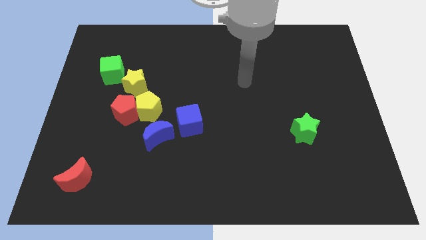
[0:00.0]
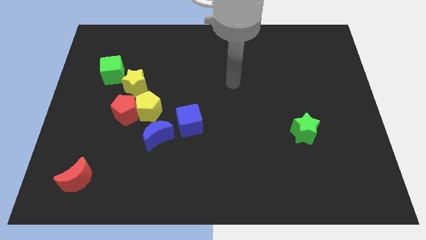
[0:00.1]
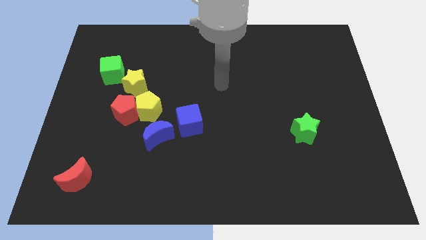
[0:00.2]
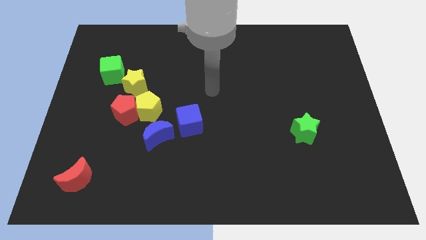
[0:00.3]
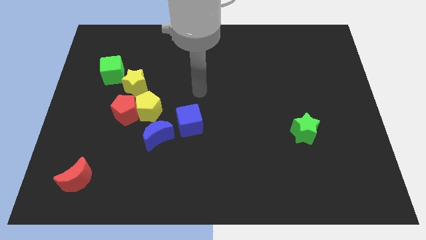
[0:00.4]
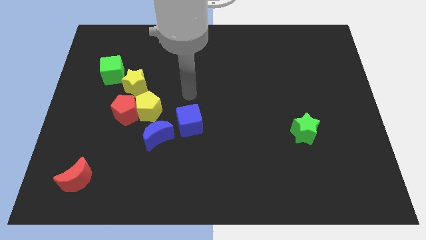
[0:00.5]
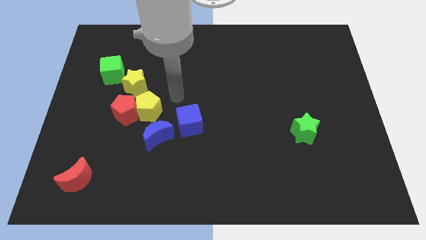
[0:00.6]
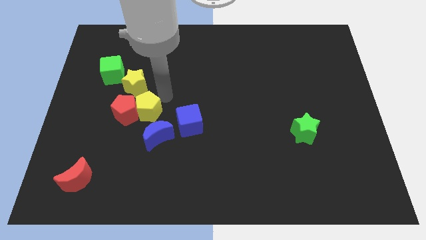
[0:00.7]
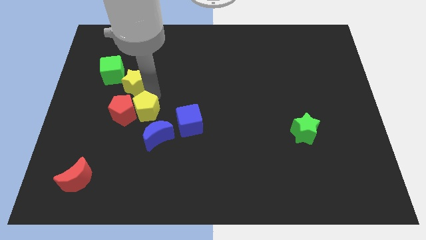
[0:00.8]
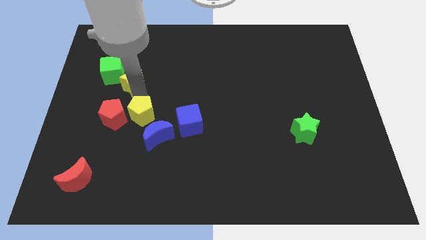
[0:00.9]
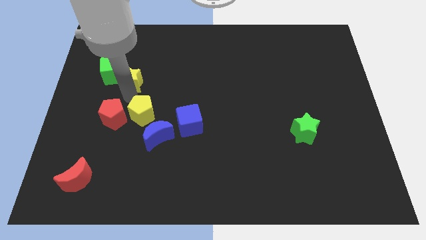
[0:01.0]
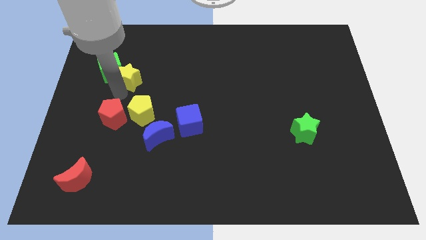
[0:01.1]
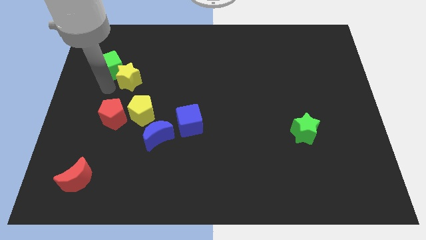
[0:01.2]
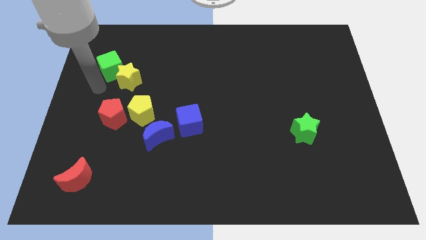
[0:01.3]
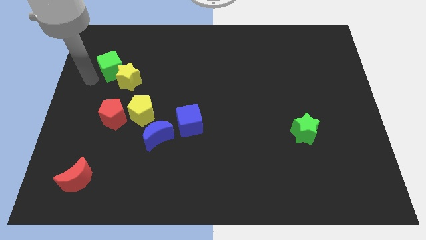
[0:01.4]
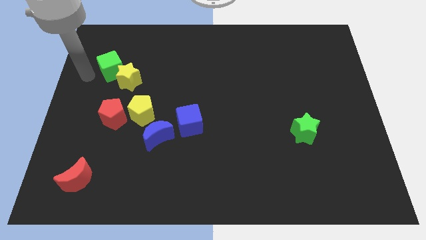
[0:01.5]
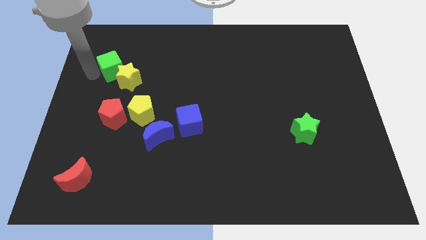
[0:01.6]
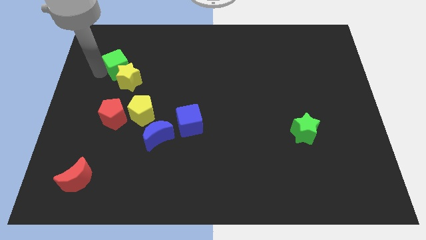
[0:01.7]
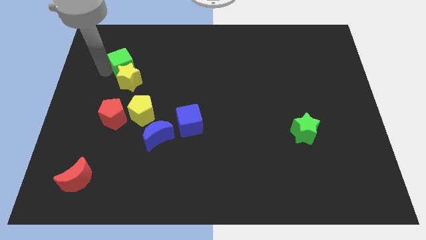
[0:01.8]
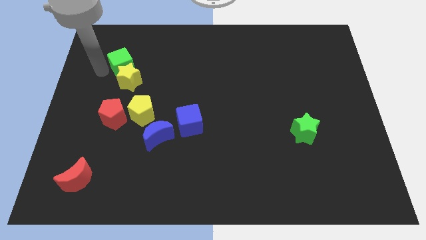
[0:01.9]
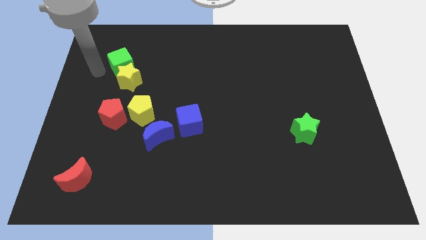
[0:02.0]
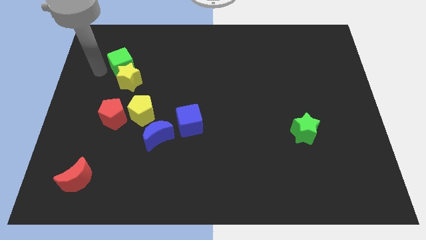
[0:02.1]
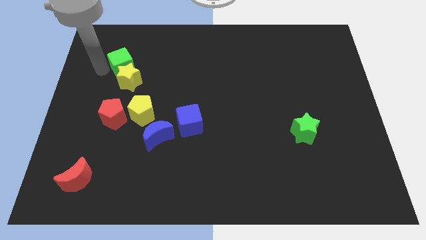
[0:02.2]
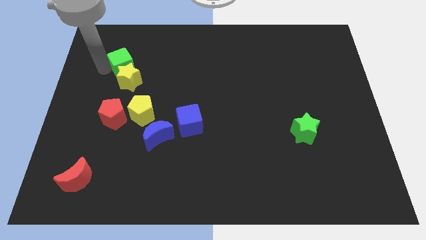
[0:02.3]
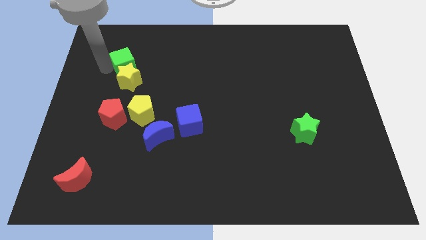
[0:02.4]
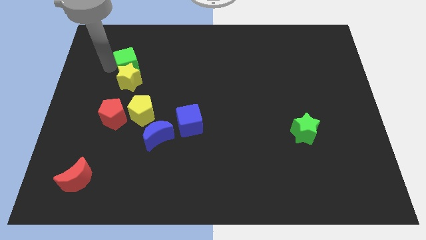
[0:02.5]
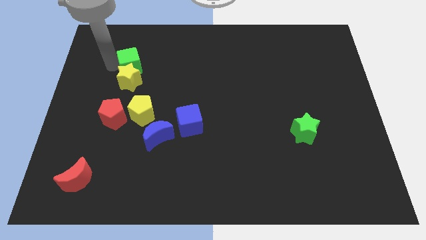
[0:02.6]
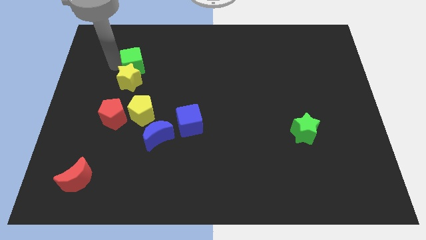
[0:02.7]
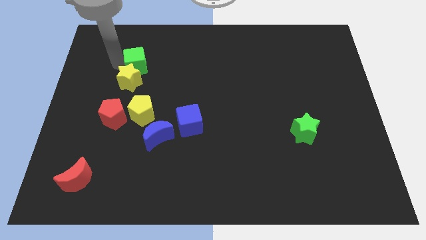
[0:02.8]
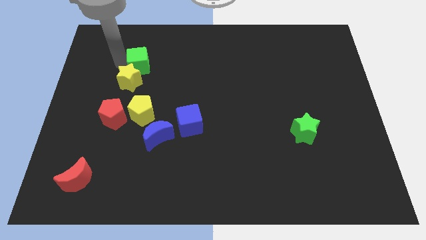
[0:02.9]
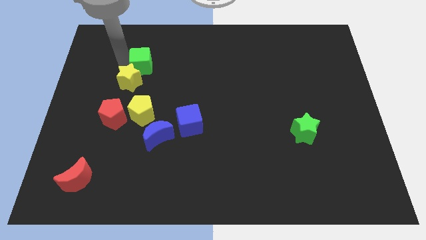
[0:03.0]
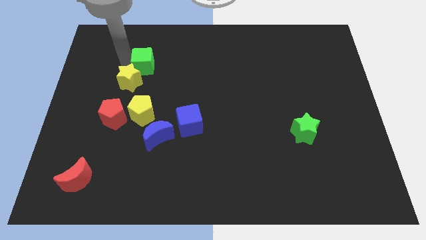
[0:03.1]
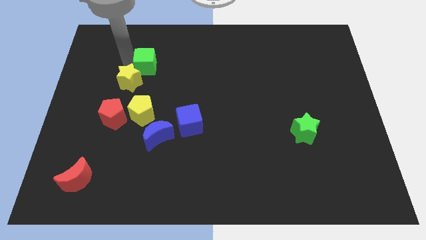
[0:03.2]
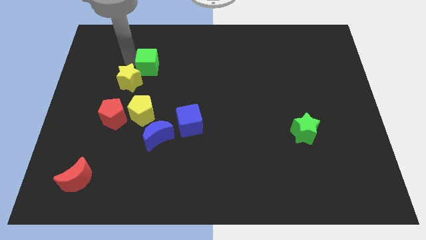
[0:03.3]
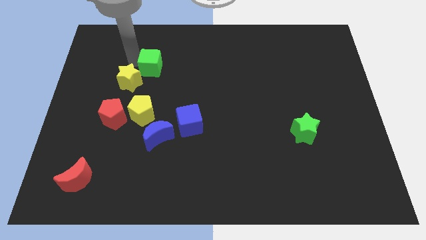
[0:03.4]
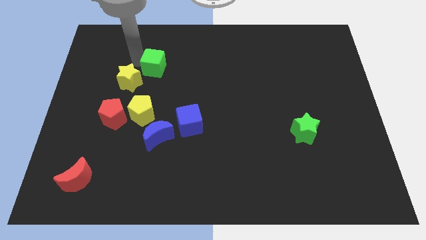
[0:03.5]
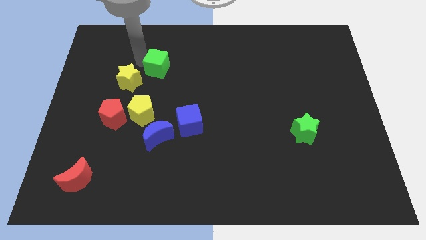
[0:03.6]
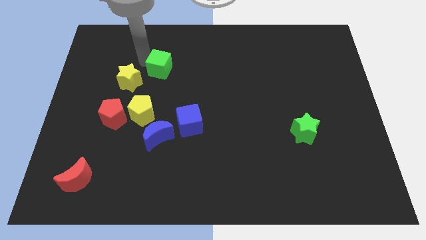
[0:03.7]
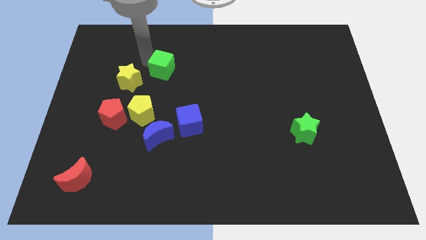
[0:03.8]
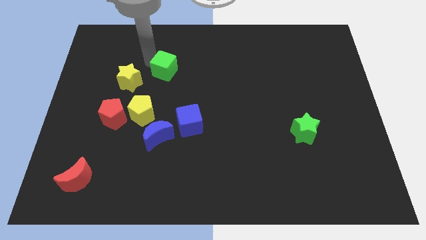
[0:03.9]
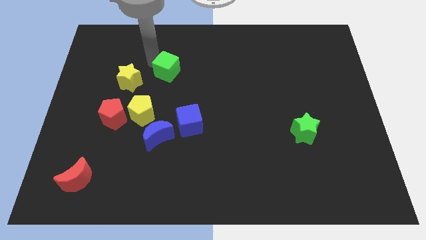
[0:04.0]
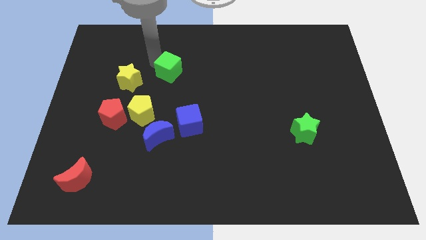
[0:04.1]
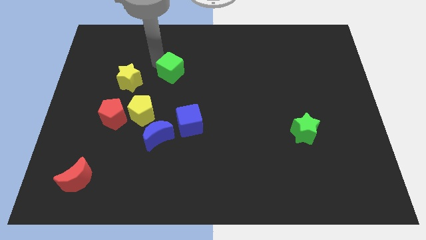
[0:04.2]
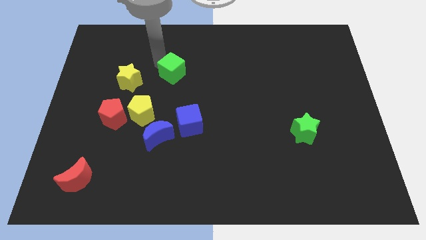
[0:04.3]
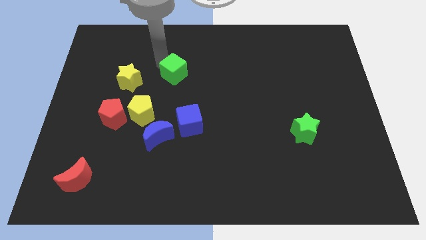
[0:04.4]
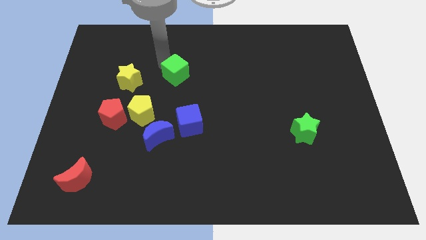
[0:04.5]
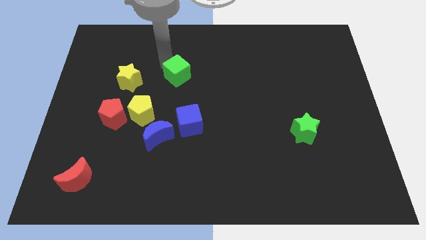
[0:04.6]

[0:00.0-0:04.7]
put the green cube to the middle

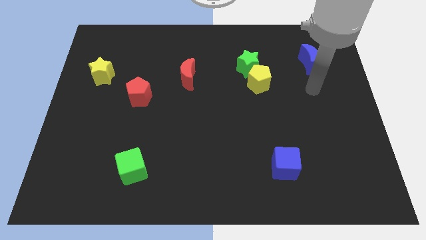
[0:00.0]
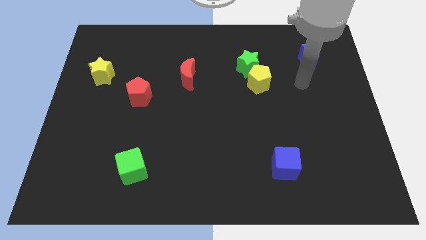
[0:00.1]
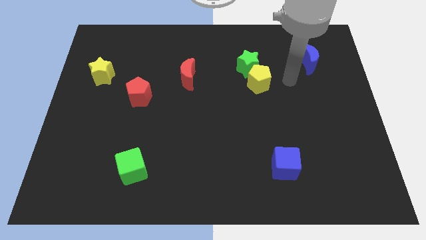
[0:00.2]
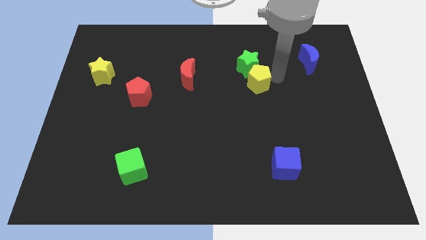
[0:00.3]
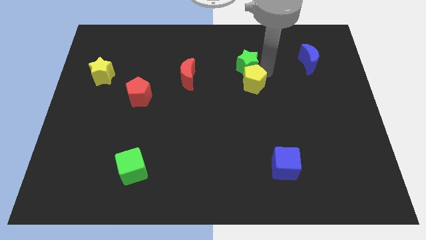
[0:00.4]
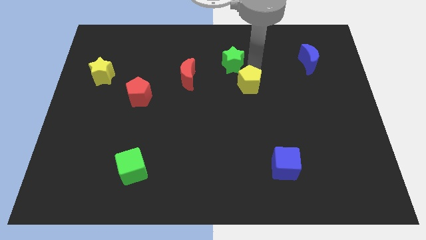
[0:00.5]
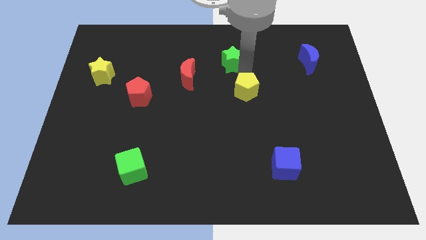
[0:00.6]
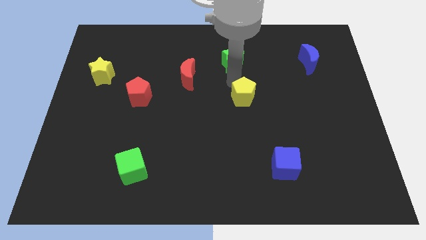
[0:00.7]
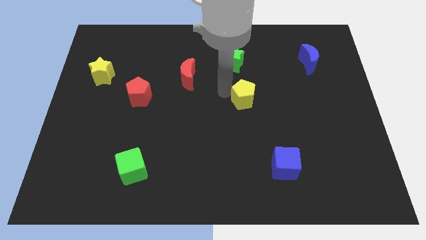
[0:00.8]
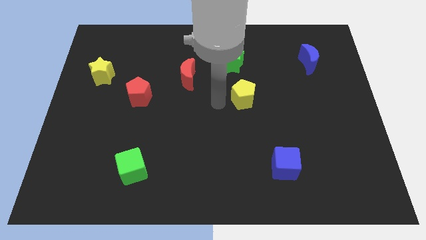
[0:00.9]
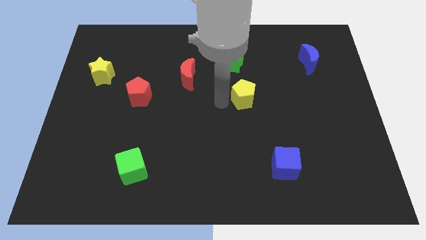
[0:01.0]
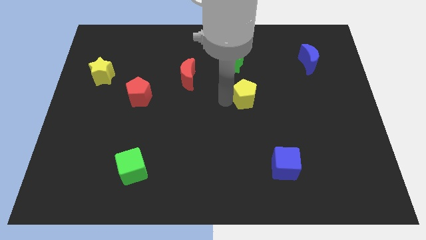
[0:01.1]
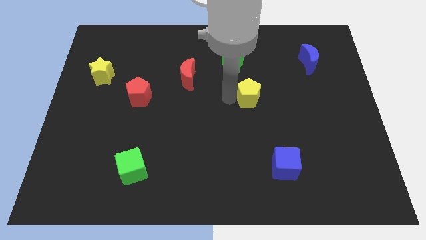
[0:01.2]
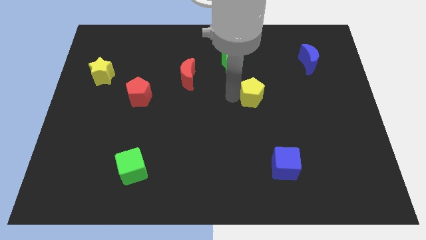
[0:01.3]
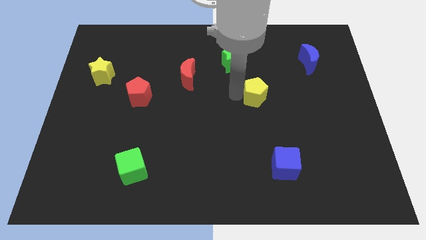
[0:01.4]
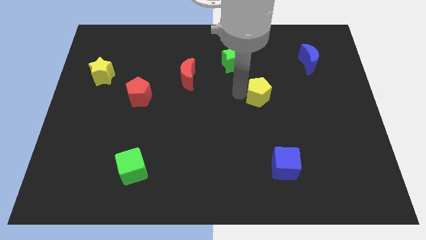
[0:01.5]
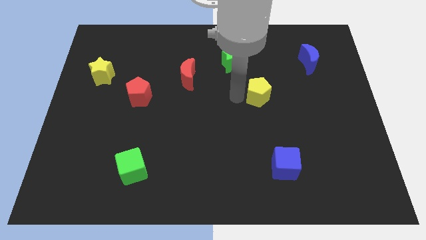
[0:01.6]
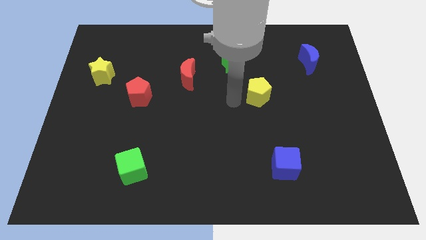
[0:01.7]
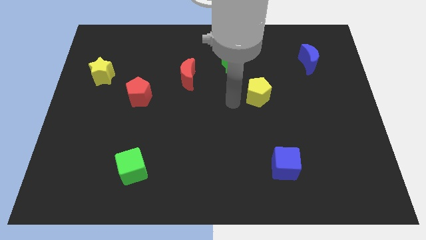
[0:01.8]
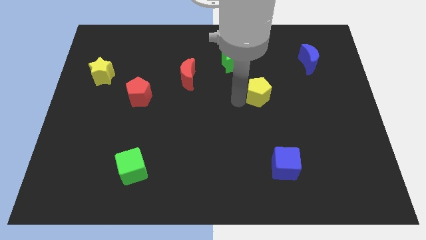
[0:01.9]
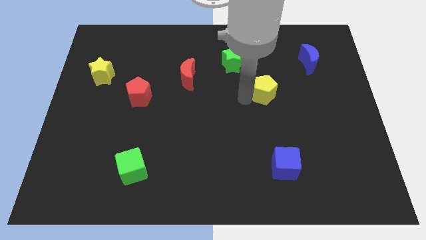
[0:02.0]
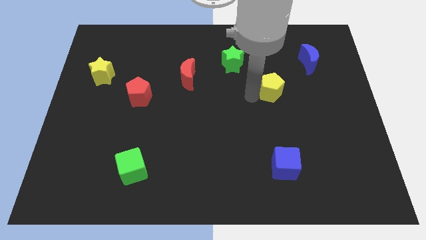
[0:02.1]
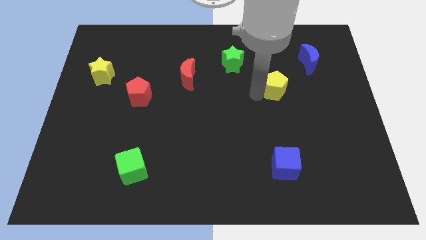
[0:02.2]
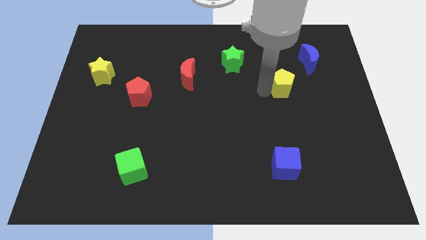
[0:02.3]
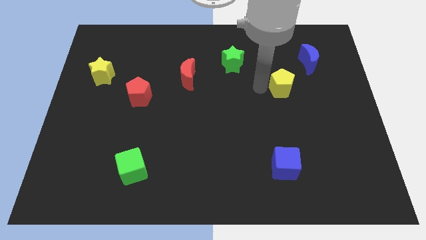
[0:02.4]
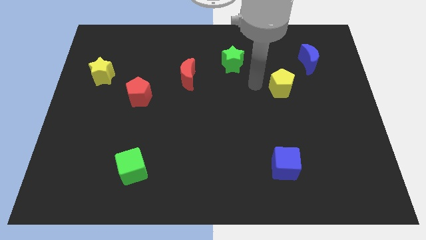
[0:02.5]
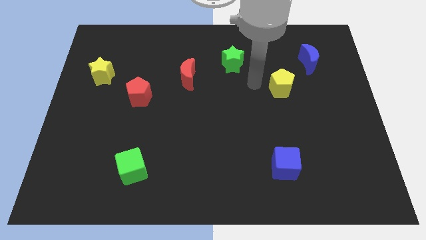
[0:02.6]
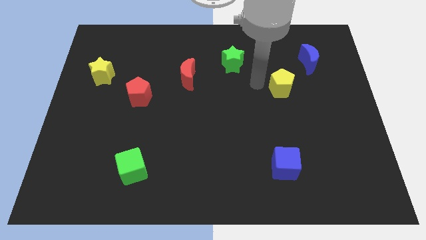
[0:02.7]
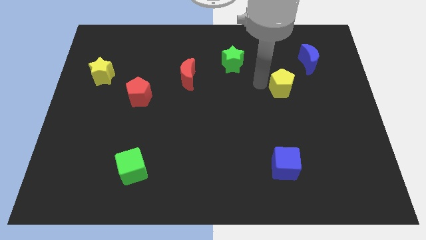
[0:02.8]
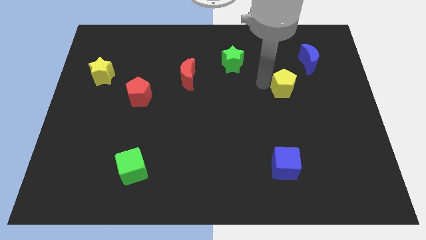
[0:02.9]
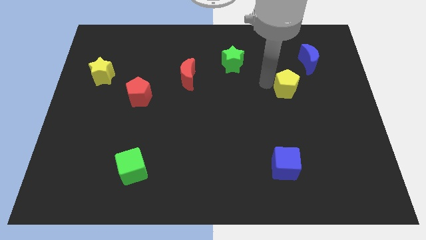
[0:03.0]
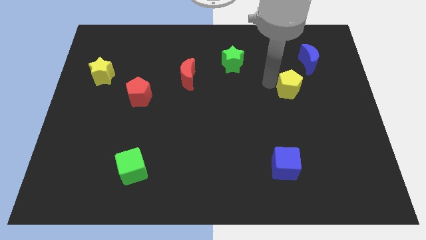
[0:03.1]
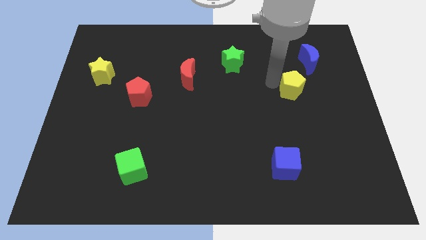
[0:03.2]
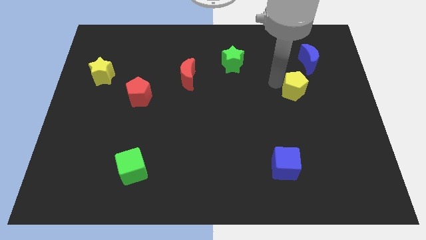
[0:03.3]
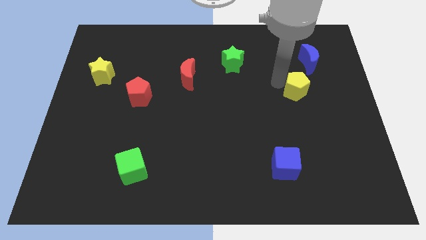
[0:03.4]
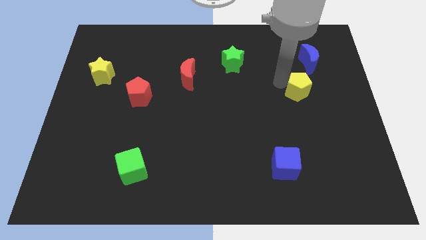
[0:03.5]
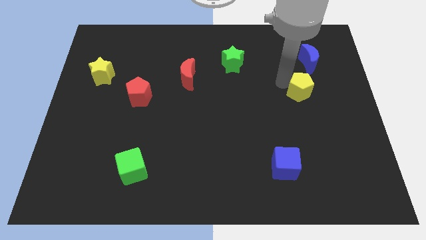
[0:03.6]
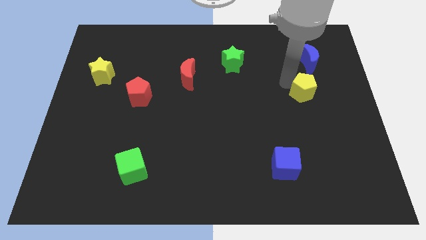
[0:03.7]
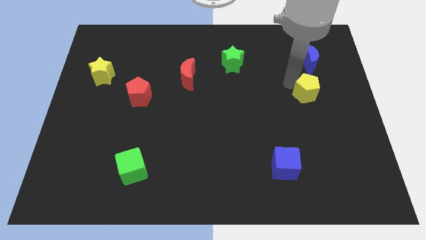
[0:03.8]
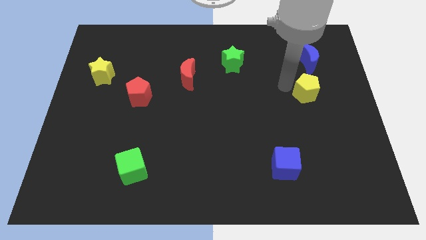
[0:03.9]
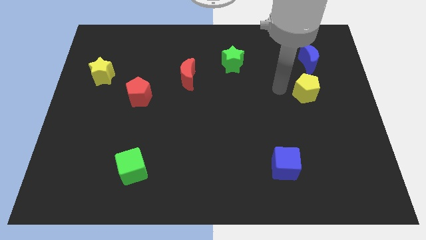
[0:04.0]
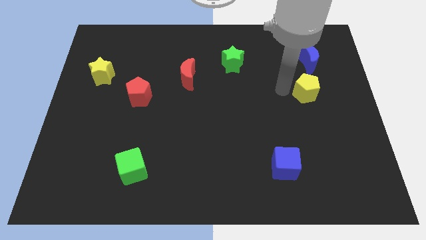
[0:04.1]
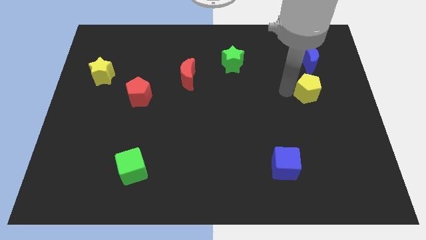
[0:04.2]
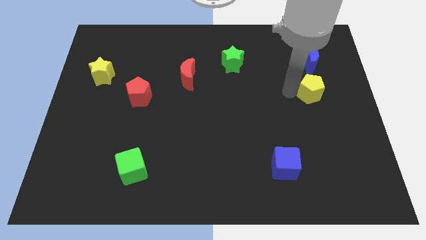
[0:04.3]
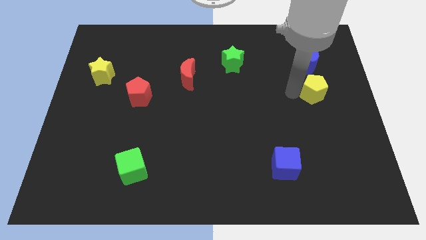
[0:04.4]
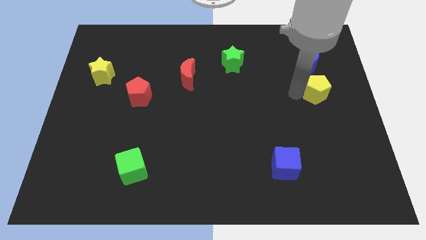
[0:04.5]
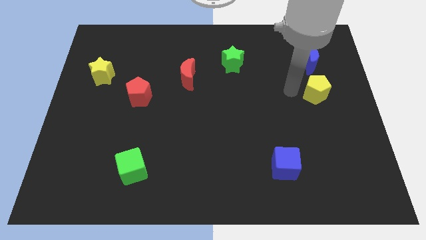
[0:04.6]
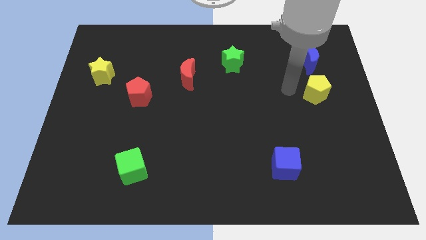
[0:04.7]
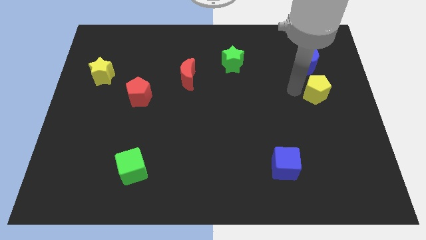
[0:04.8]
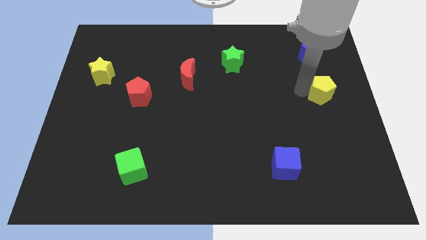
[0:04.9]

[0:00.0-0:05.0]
put the yellow pentagon to the center right
